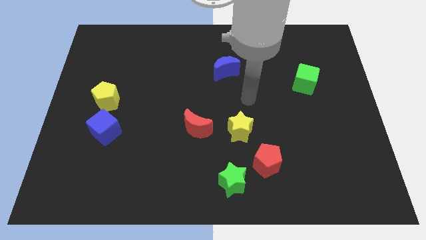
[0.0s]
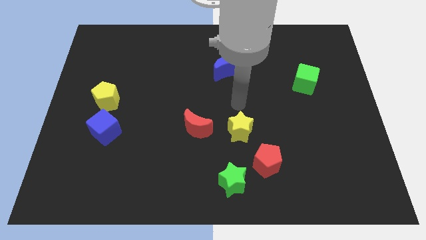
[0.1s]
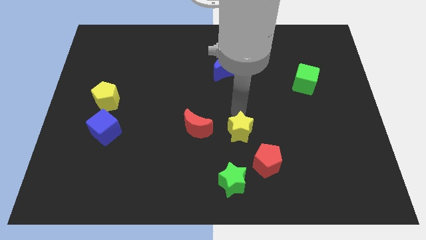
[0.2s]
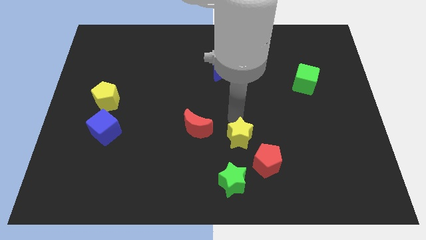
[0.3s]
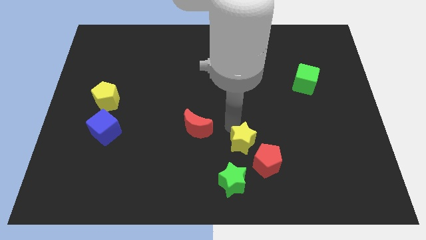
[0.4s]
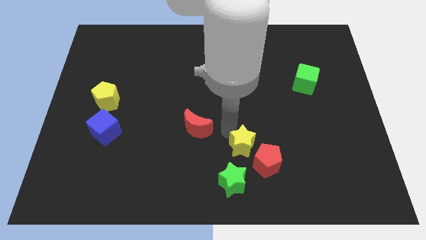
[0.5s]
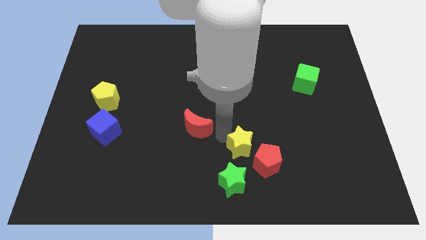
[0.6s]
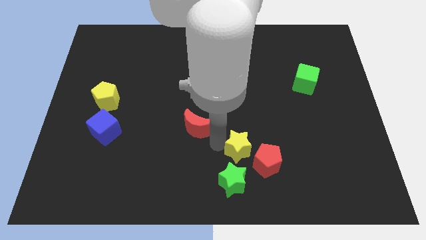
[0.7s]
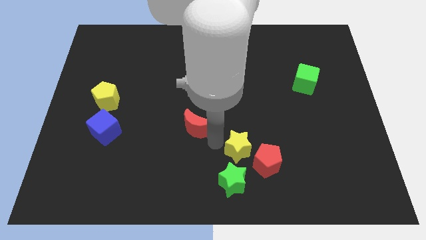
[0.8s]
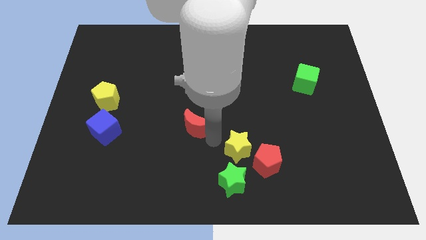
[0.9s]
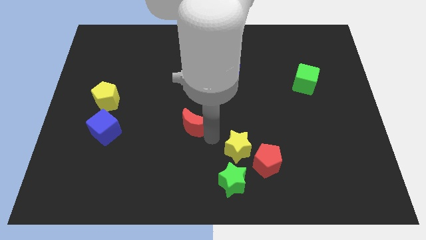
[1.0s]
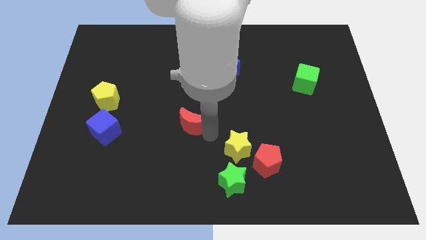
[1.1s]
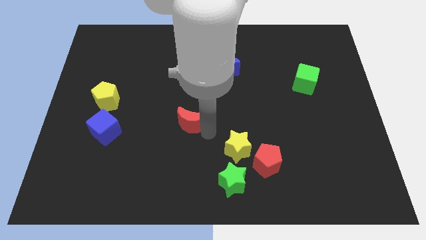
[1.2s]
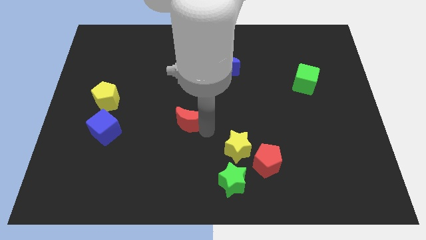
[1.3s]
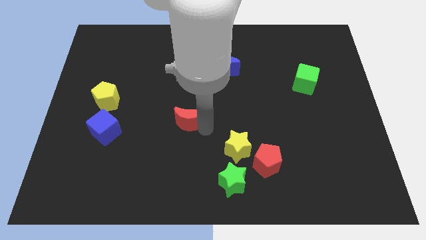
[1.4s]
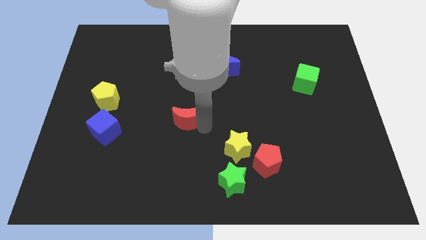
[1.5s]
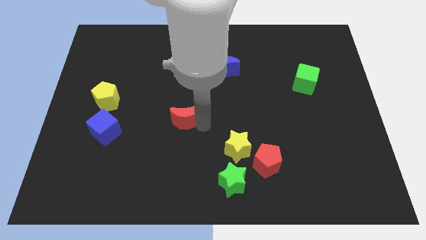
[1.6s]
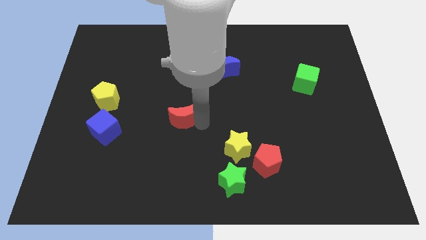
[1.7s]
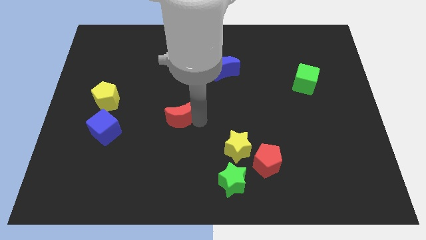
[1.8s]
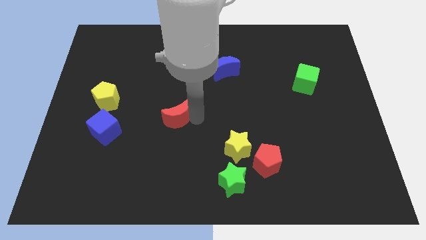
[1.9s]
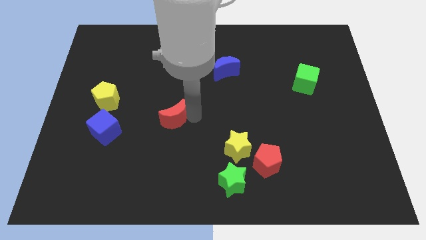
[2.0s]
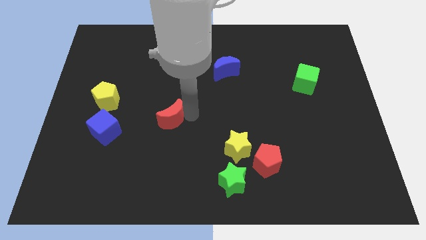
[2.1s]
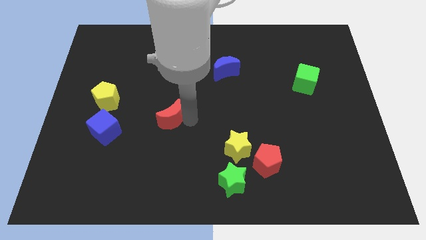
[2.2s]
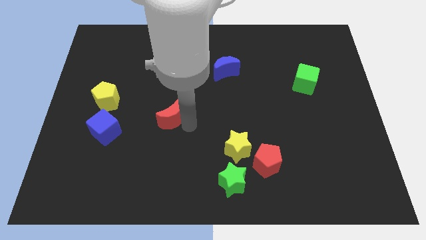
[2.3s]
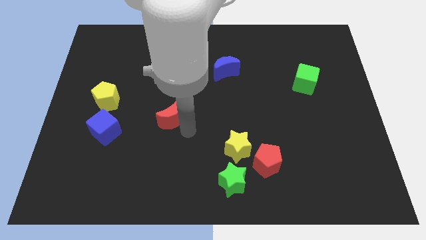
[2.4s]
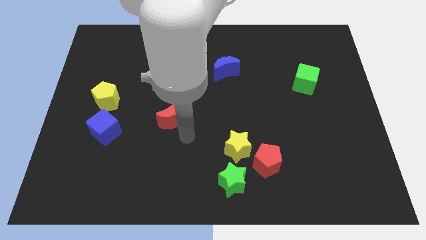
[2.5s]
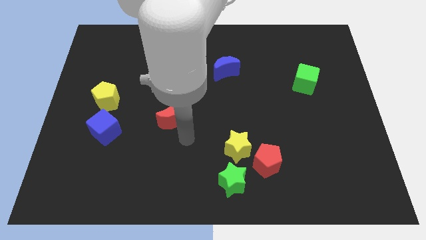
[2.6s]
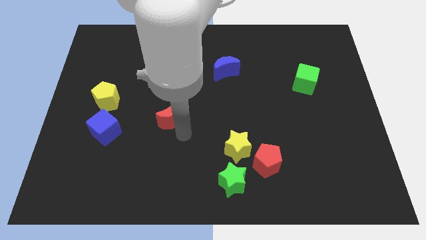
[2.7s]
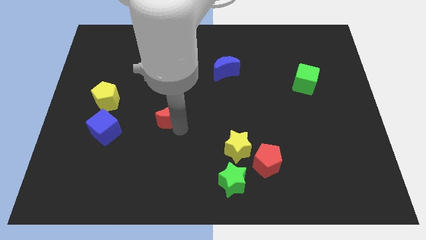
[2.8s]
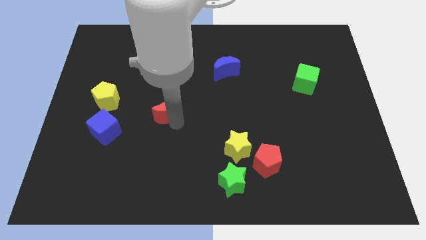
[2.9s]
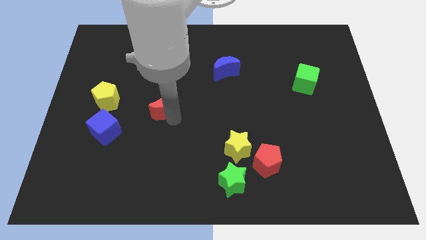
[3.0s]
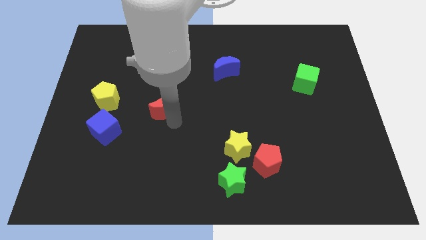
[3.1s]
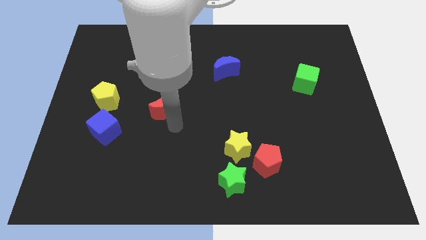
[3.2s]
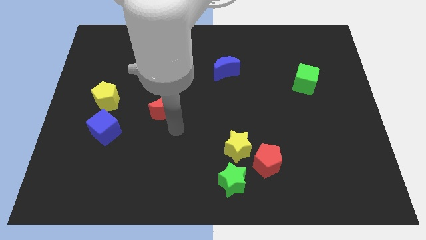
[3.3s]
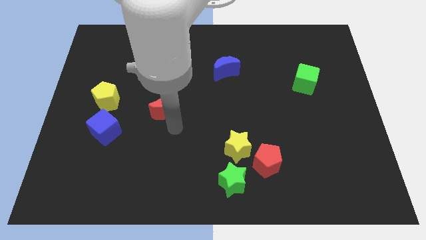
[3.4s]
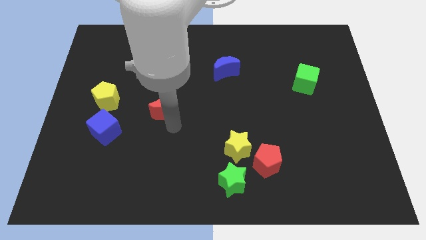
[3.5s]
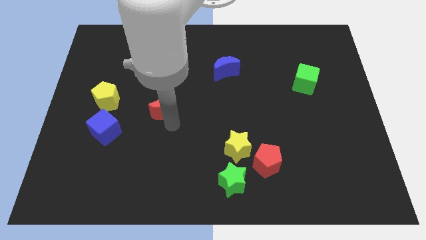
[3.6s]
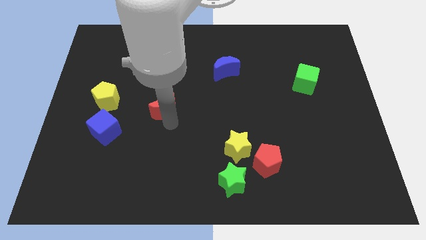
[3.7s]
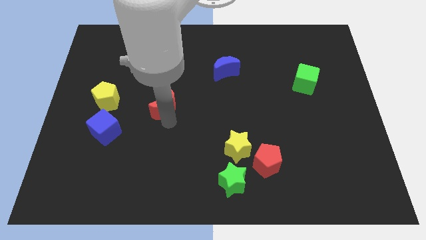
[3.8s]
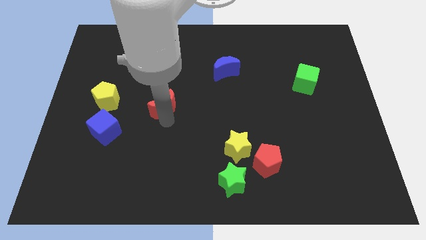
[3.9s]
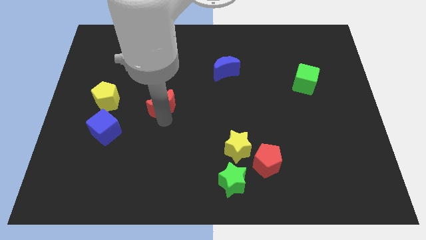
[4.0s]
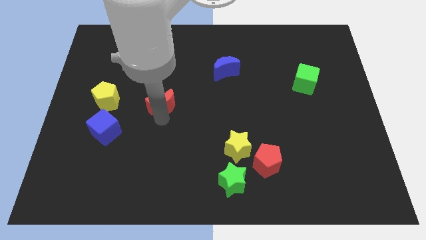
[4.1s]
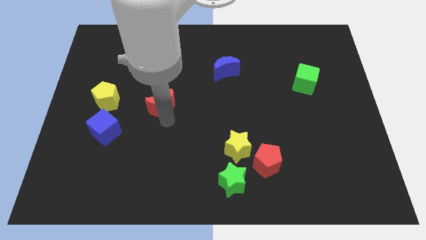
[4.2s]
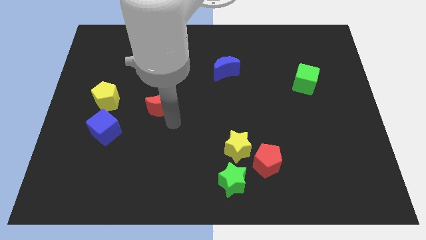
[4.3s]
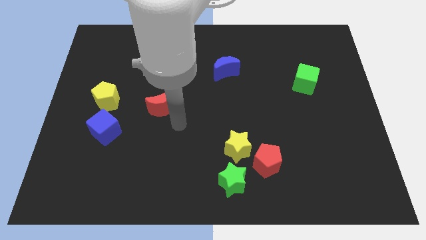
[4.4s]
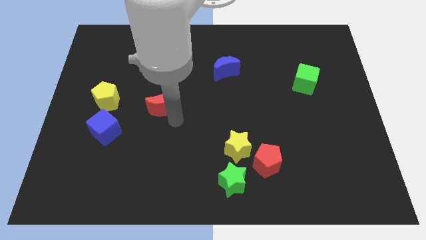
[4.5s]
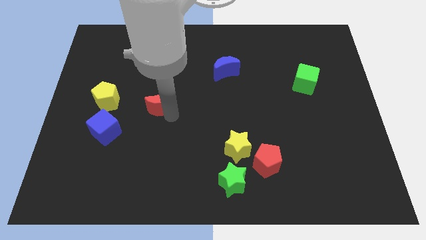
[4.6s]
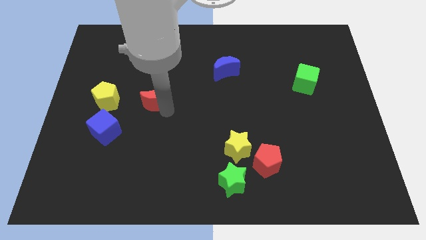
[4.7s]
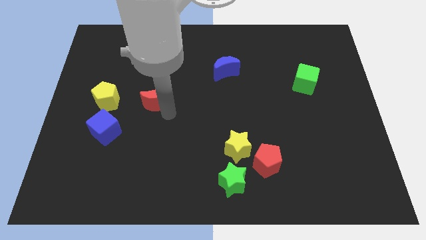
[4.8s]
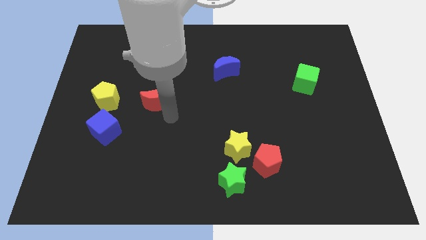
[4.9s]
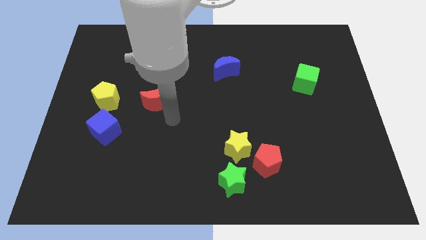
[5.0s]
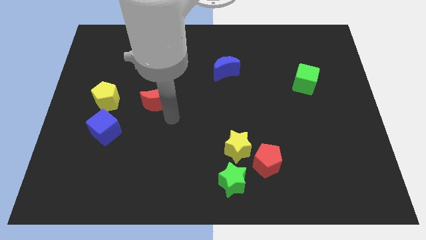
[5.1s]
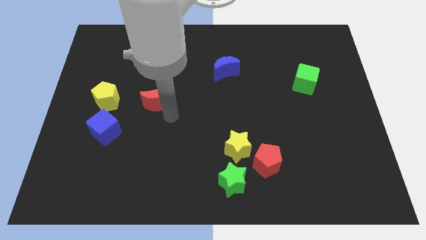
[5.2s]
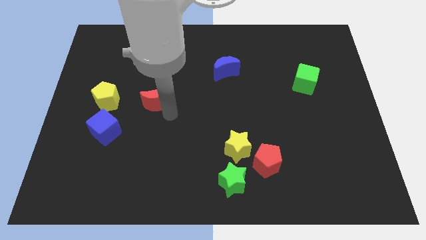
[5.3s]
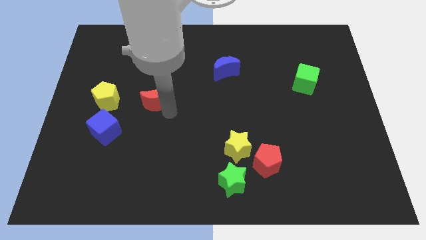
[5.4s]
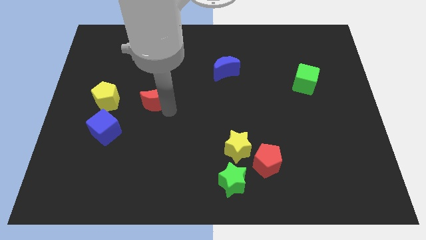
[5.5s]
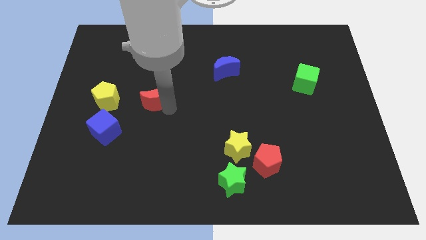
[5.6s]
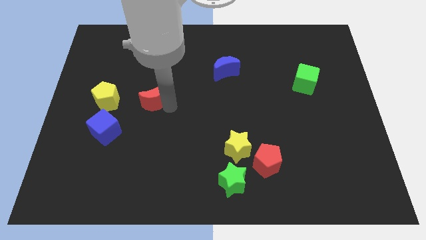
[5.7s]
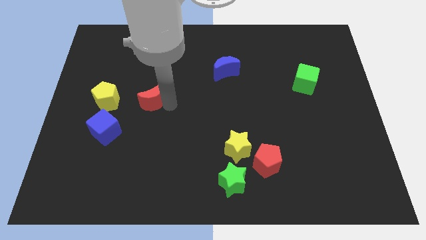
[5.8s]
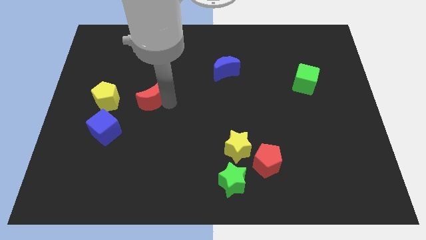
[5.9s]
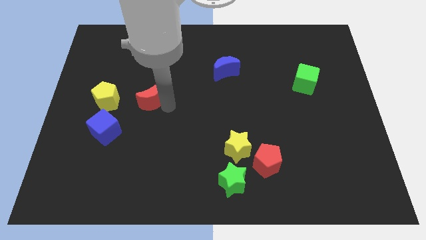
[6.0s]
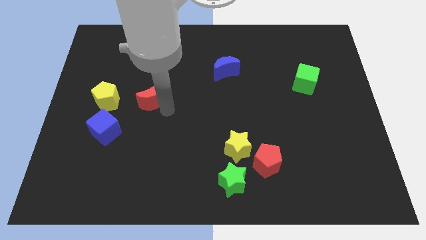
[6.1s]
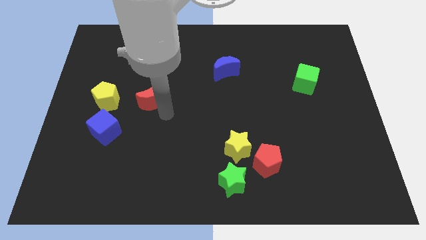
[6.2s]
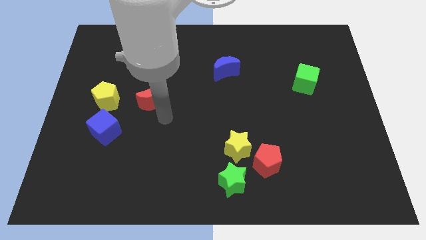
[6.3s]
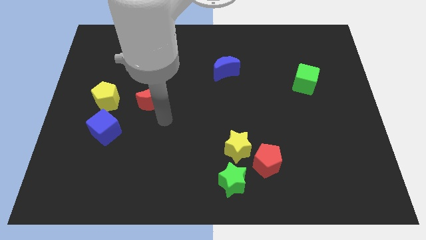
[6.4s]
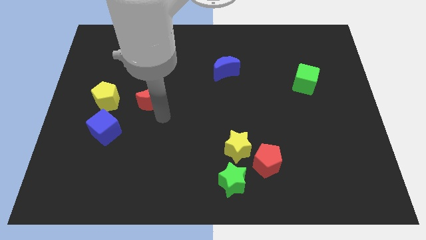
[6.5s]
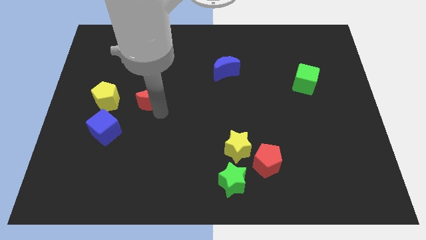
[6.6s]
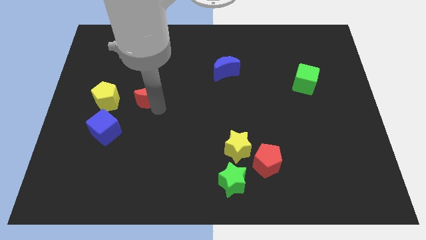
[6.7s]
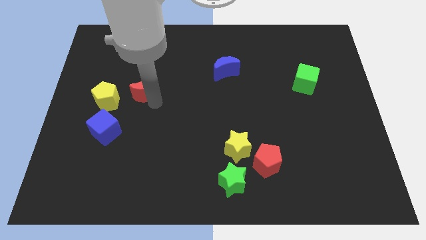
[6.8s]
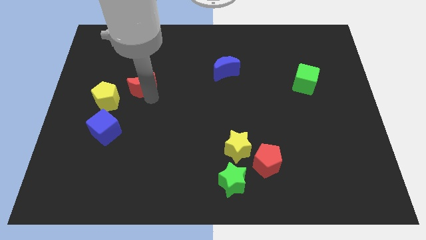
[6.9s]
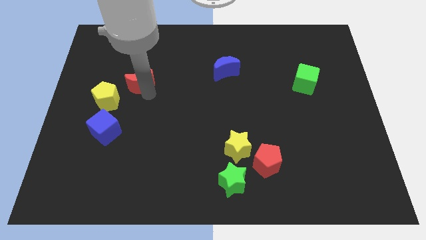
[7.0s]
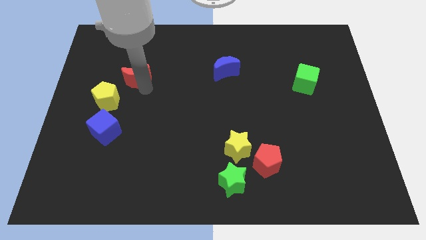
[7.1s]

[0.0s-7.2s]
move the red moon upwards and to the left diagonally

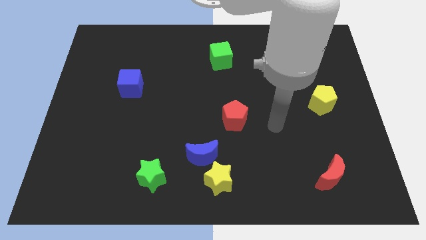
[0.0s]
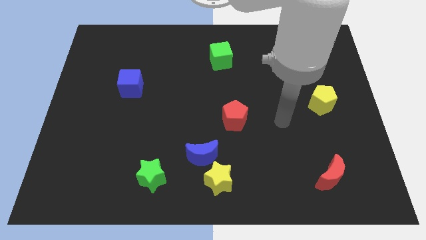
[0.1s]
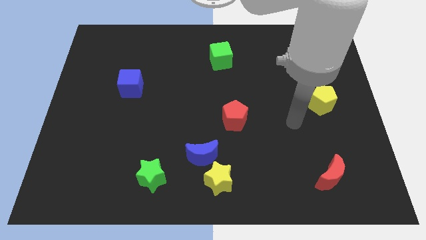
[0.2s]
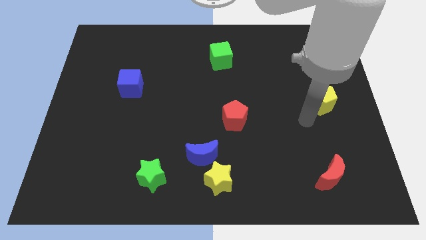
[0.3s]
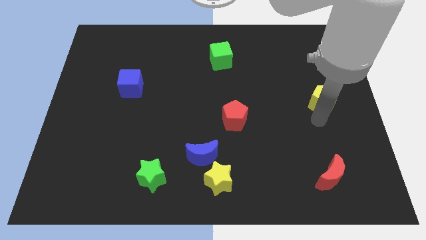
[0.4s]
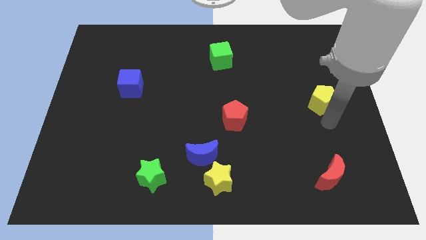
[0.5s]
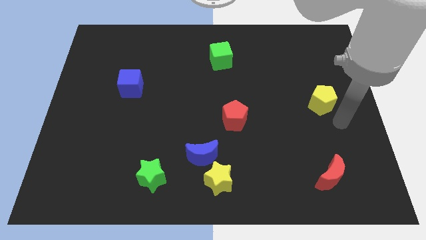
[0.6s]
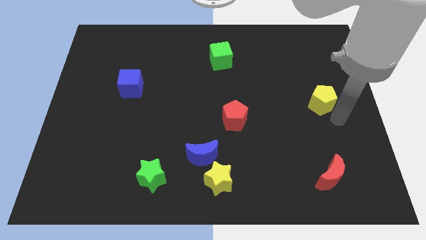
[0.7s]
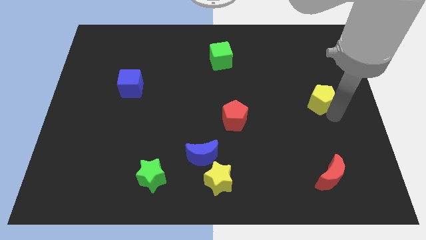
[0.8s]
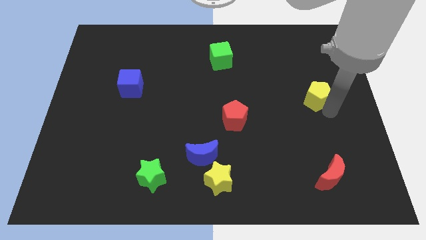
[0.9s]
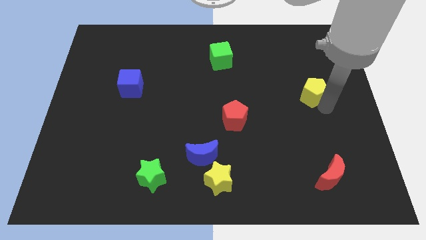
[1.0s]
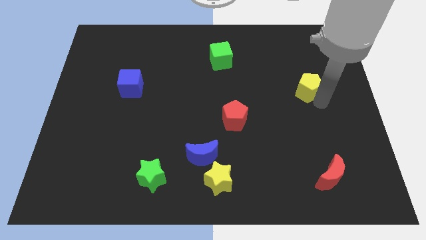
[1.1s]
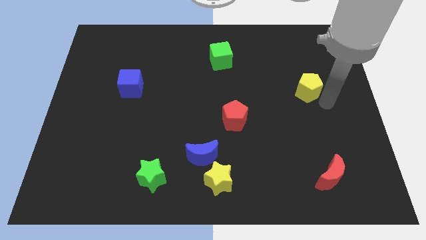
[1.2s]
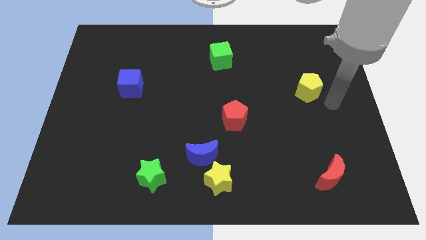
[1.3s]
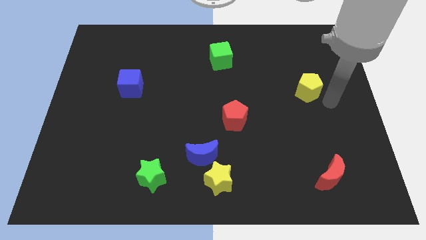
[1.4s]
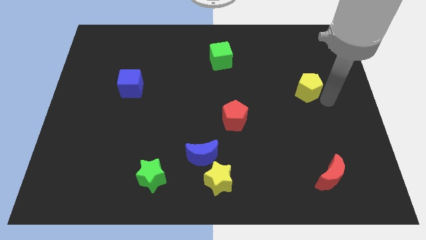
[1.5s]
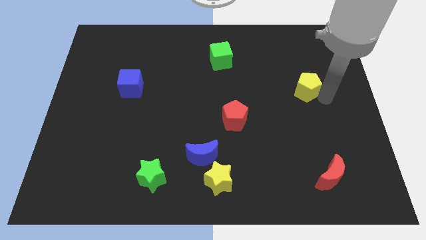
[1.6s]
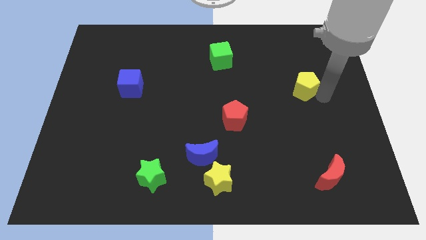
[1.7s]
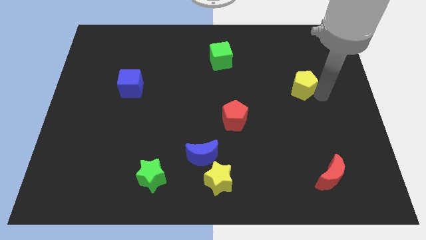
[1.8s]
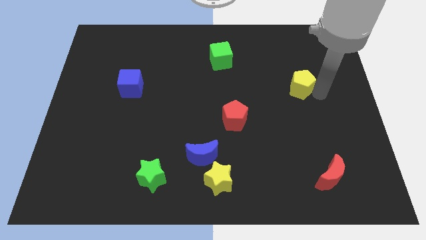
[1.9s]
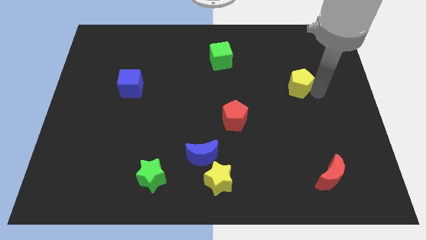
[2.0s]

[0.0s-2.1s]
slightly push the yellow pentagon diagonally upwards and to the left
